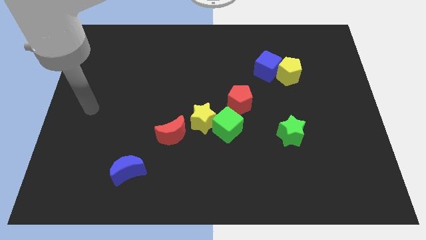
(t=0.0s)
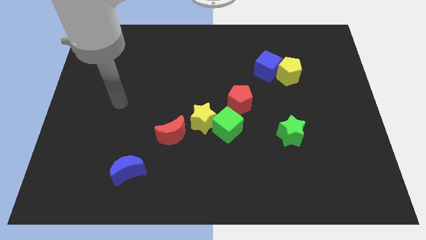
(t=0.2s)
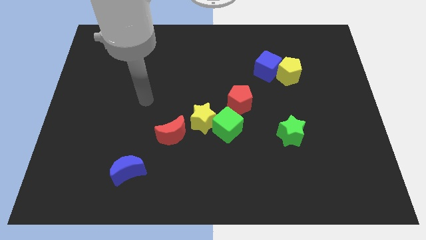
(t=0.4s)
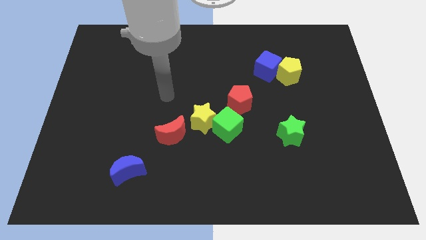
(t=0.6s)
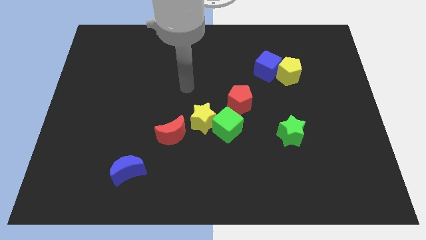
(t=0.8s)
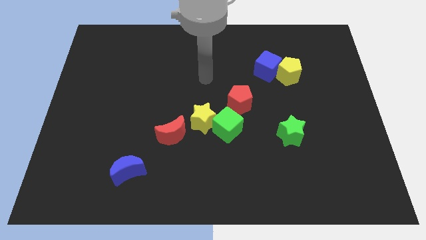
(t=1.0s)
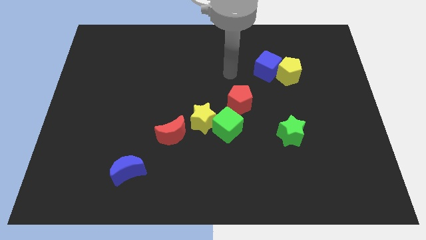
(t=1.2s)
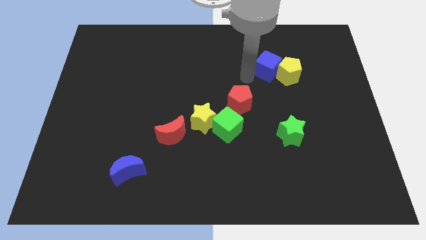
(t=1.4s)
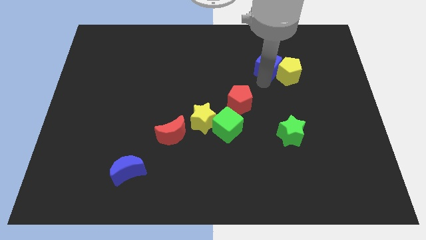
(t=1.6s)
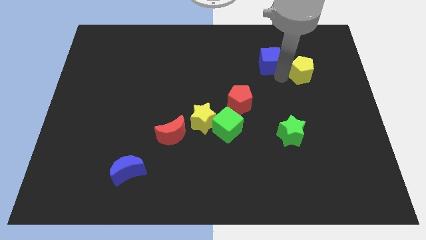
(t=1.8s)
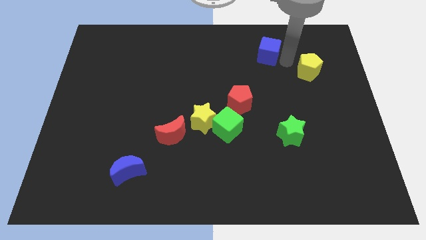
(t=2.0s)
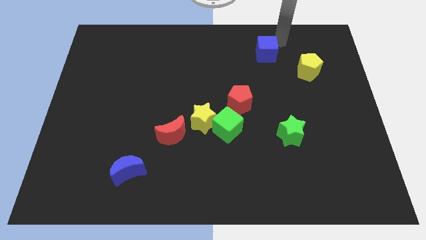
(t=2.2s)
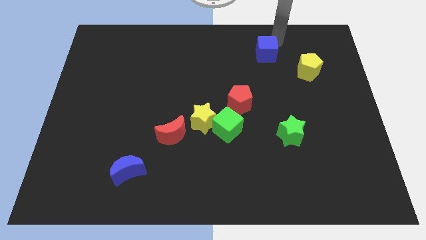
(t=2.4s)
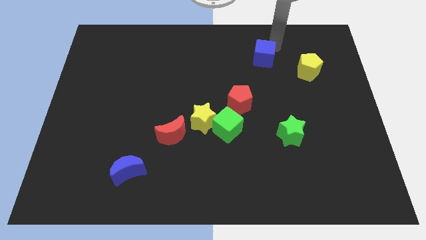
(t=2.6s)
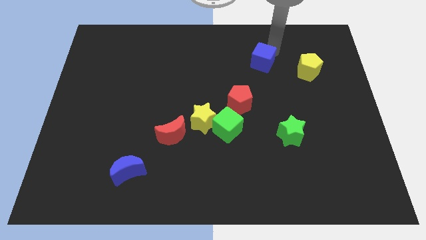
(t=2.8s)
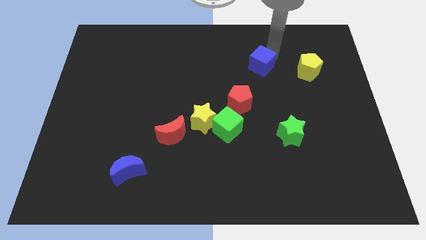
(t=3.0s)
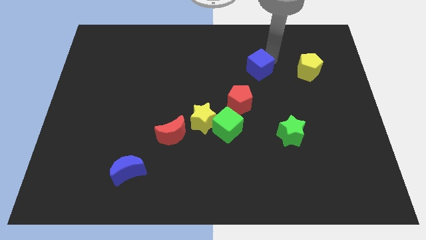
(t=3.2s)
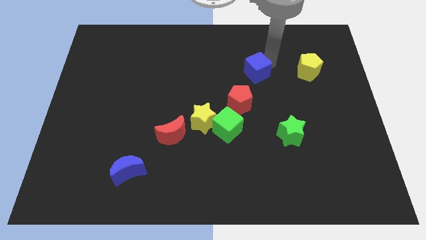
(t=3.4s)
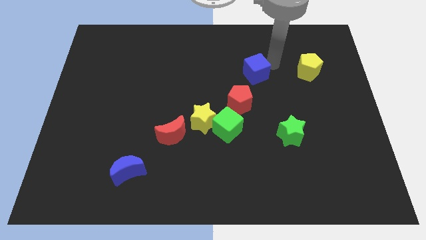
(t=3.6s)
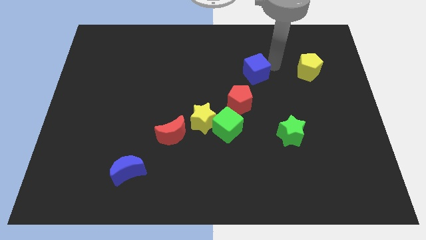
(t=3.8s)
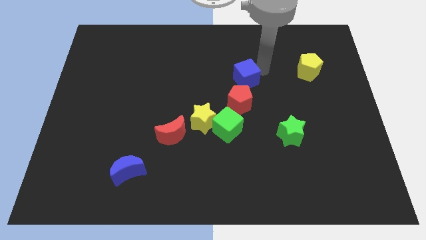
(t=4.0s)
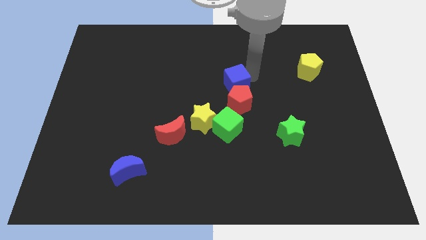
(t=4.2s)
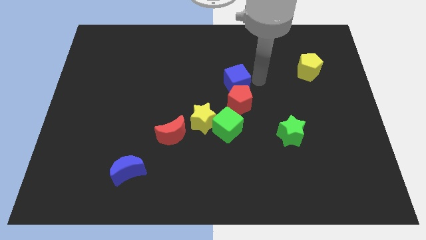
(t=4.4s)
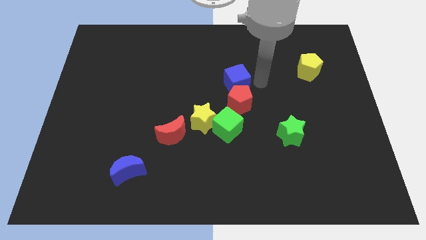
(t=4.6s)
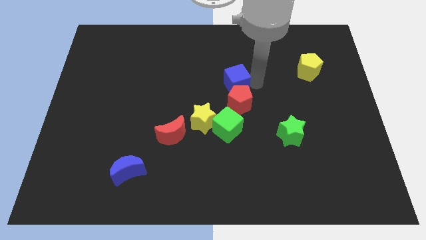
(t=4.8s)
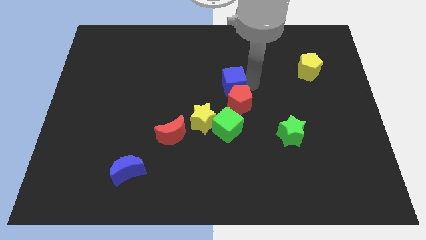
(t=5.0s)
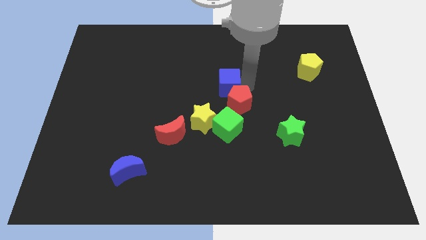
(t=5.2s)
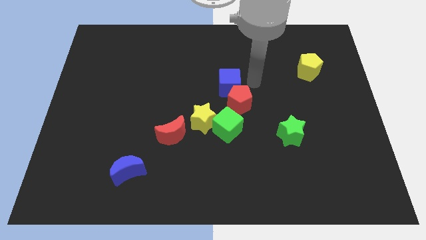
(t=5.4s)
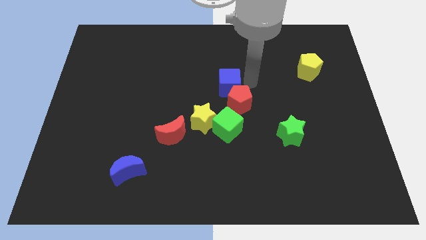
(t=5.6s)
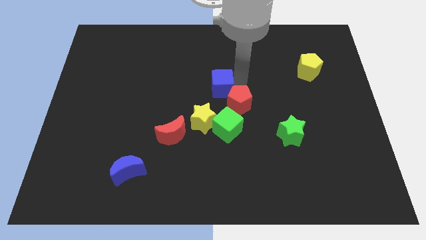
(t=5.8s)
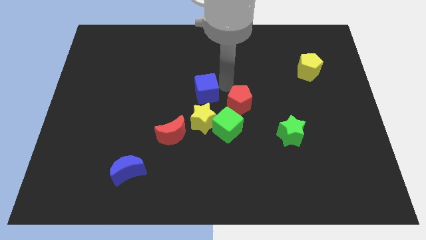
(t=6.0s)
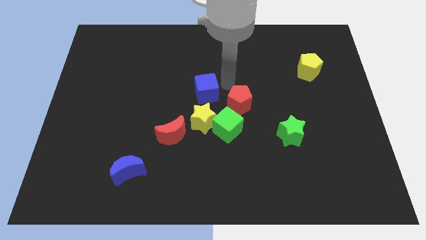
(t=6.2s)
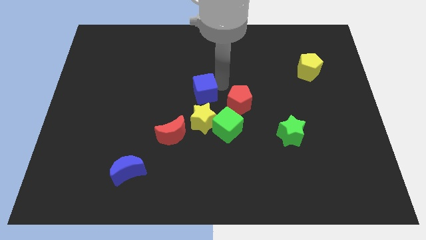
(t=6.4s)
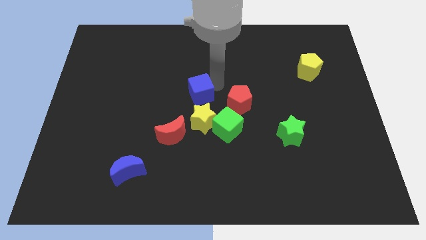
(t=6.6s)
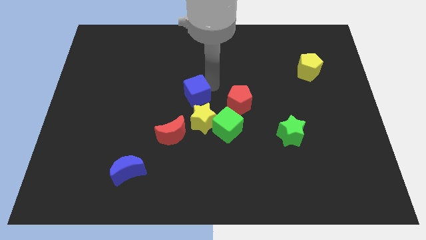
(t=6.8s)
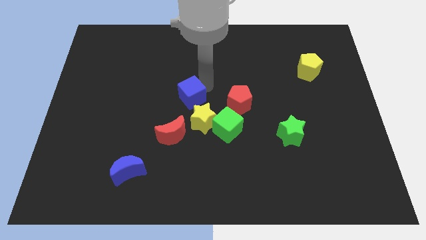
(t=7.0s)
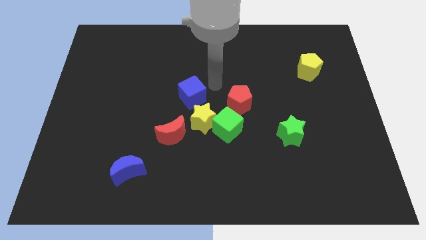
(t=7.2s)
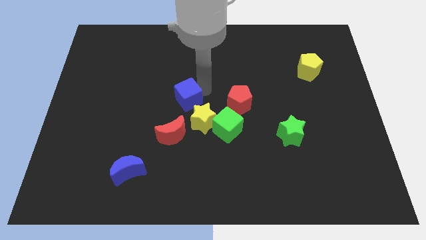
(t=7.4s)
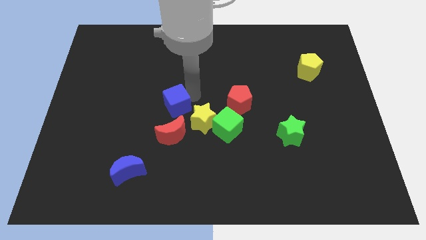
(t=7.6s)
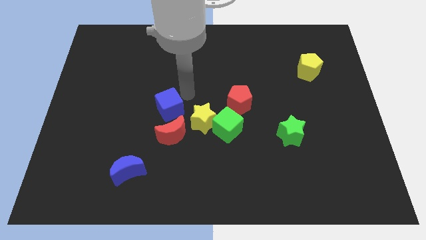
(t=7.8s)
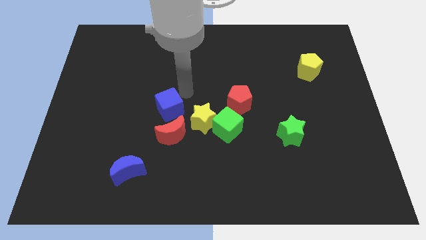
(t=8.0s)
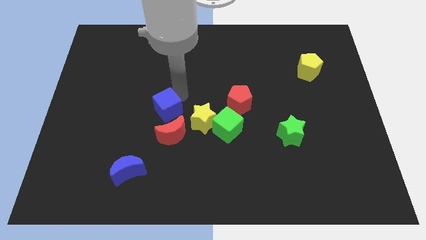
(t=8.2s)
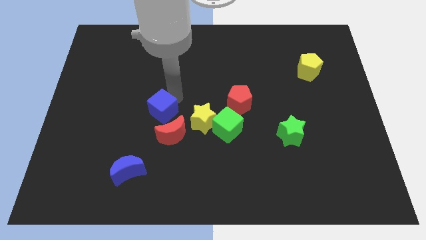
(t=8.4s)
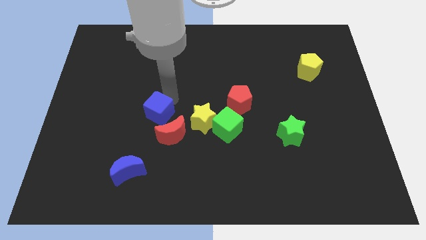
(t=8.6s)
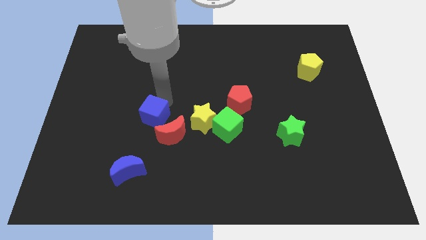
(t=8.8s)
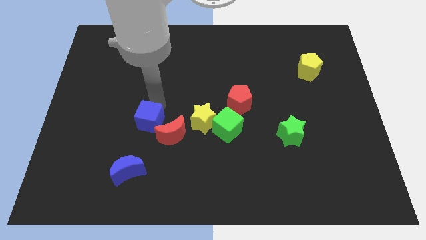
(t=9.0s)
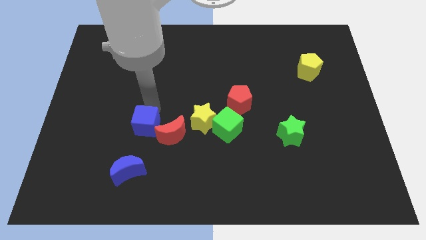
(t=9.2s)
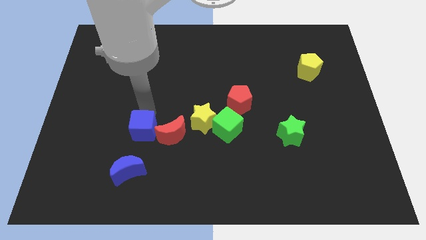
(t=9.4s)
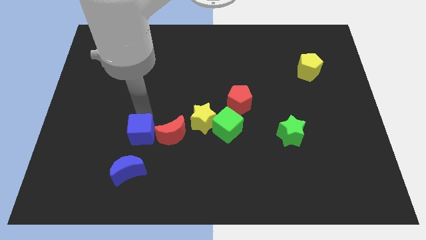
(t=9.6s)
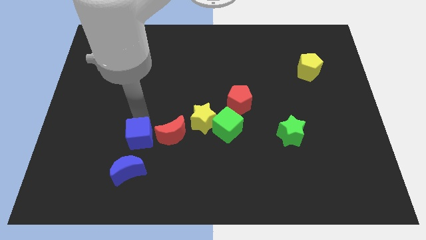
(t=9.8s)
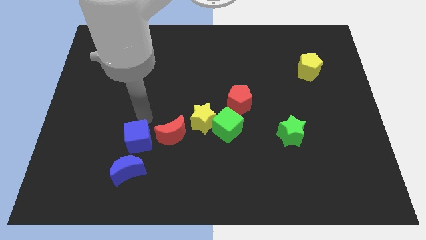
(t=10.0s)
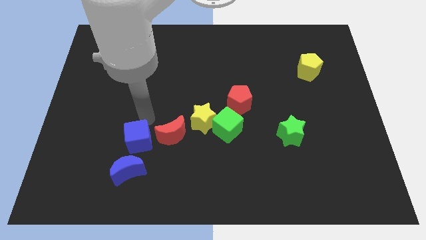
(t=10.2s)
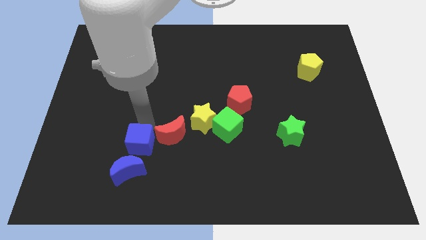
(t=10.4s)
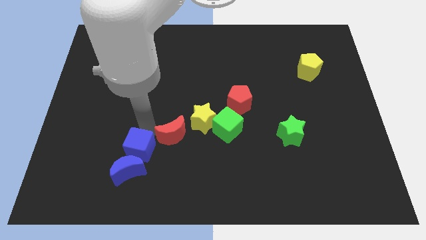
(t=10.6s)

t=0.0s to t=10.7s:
push the blue cube towards the blue moon

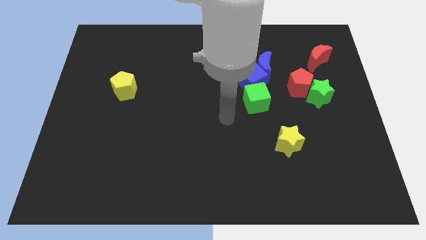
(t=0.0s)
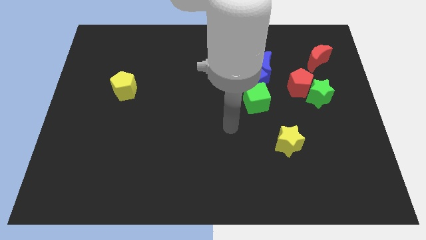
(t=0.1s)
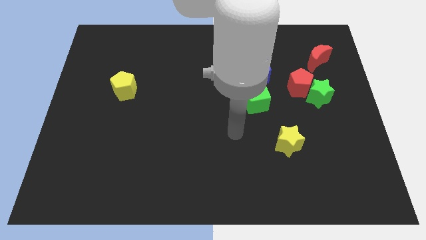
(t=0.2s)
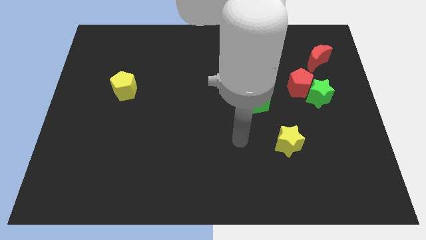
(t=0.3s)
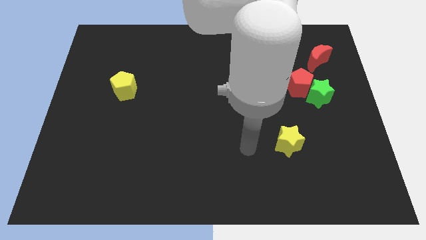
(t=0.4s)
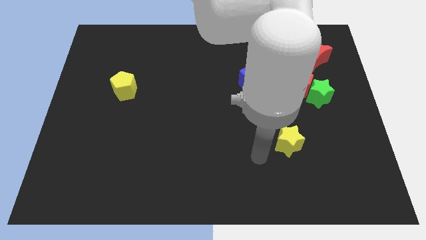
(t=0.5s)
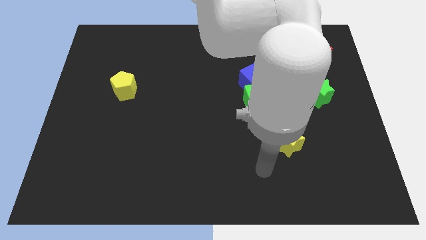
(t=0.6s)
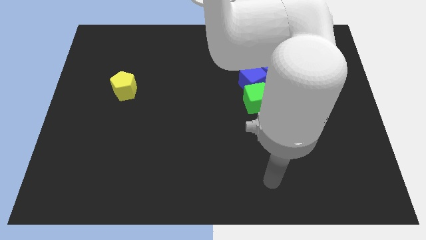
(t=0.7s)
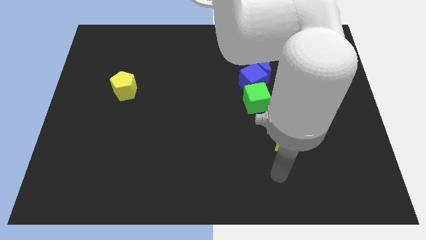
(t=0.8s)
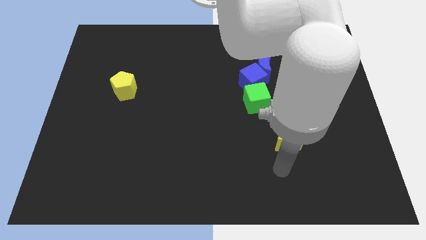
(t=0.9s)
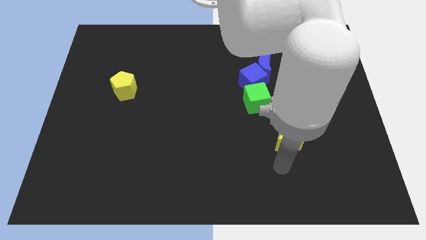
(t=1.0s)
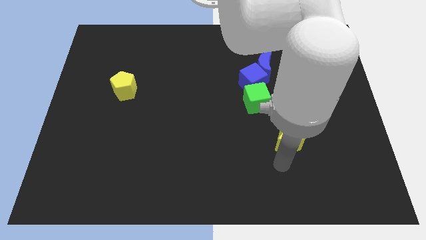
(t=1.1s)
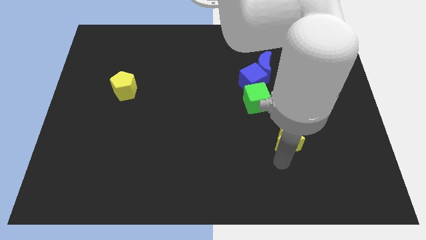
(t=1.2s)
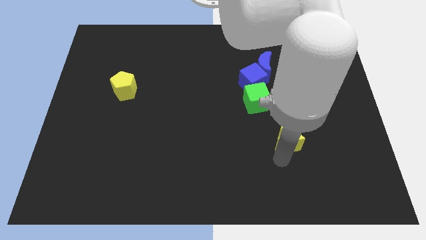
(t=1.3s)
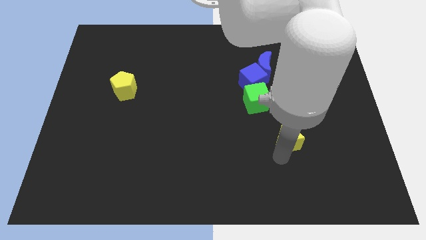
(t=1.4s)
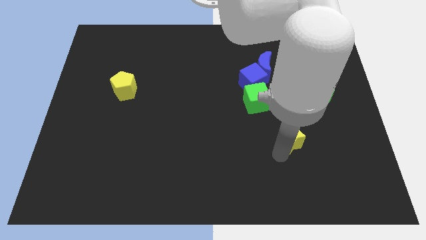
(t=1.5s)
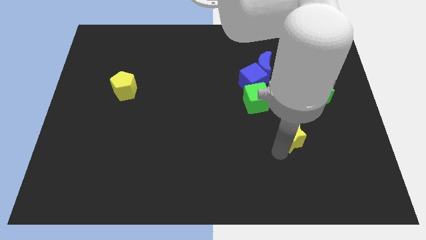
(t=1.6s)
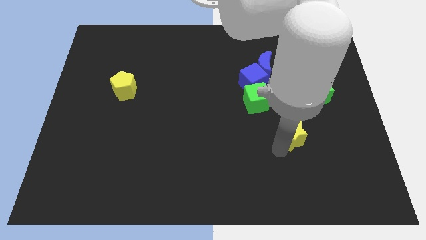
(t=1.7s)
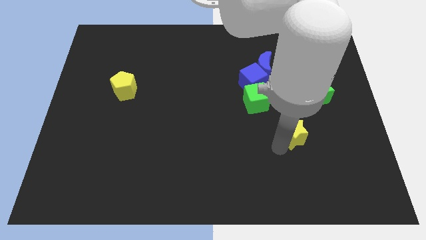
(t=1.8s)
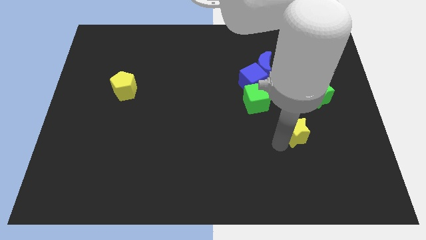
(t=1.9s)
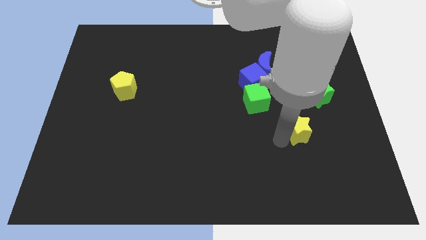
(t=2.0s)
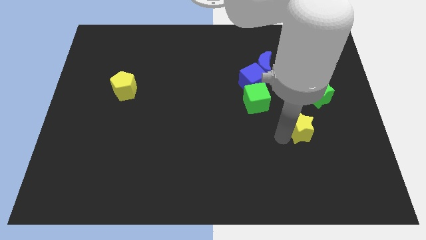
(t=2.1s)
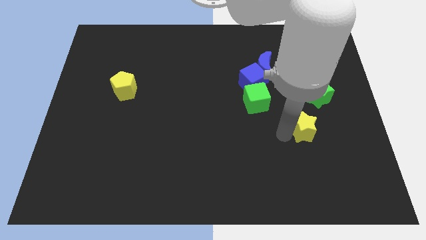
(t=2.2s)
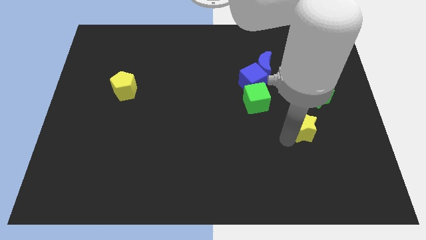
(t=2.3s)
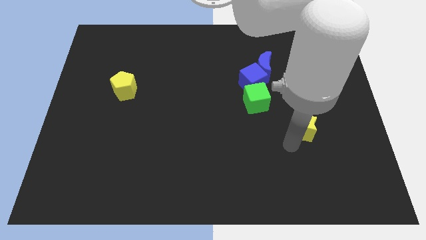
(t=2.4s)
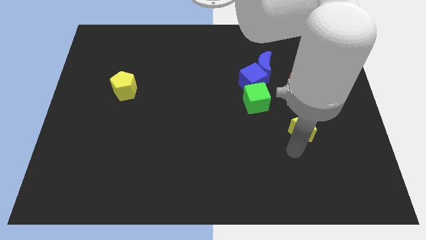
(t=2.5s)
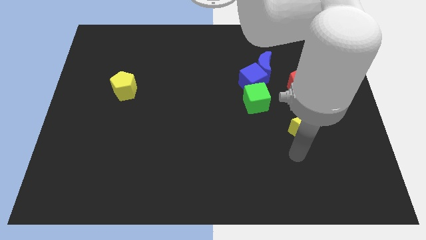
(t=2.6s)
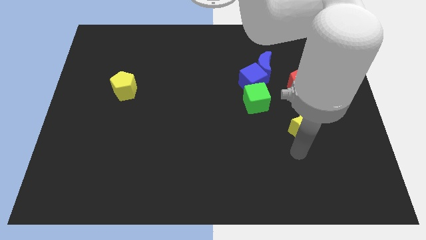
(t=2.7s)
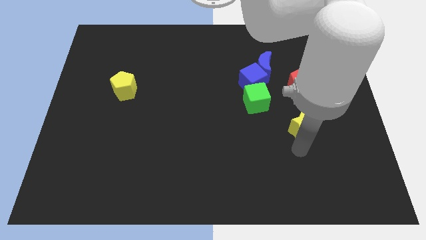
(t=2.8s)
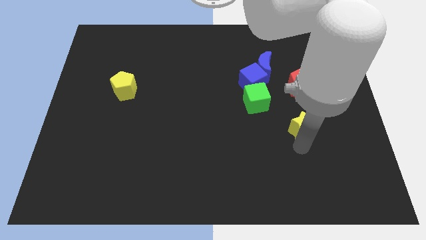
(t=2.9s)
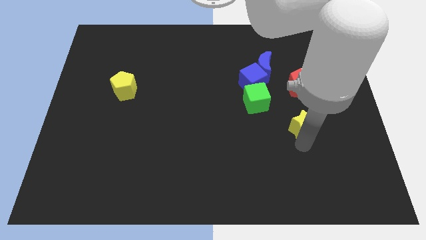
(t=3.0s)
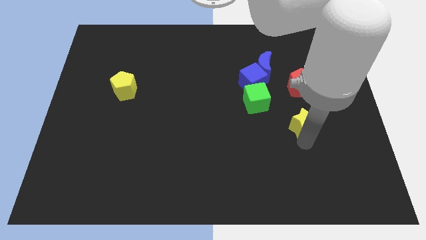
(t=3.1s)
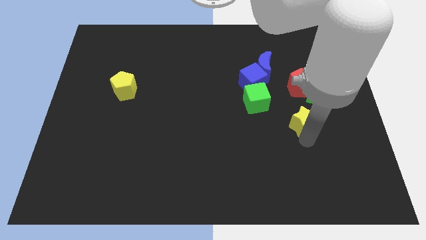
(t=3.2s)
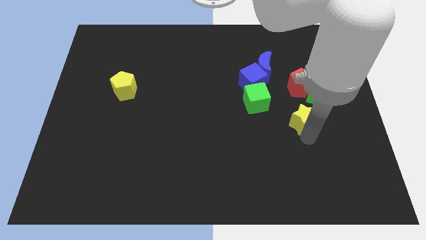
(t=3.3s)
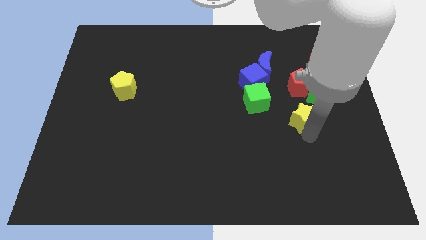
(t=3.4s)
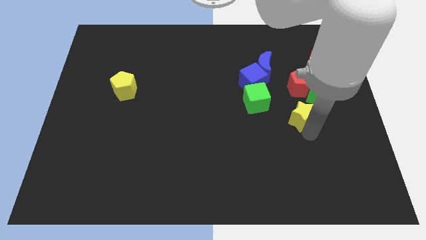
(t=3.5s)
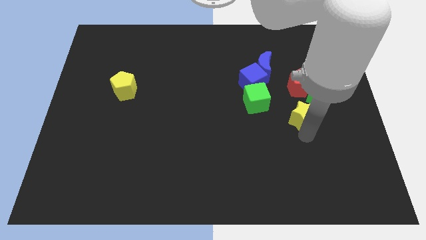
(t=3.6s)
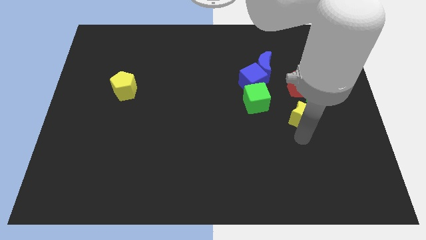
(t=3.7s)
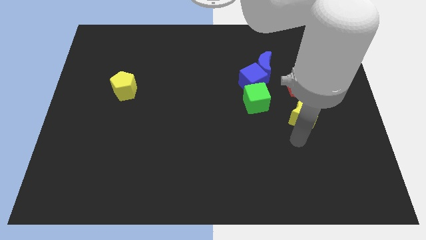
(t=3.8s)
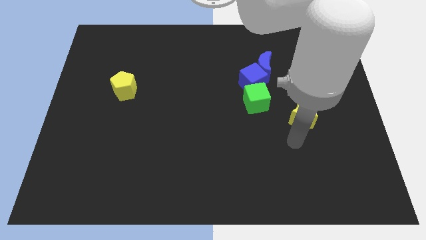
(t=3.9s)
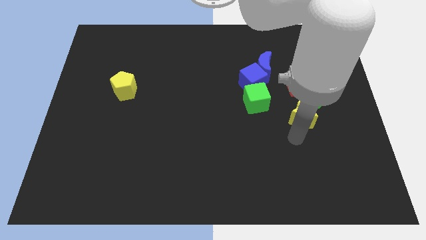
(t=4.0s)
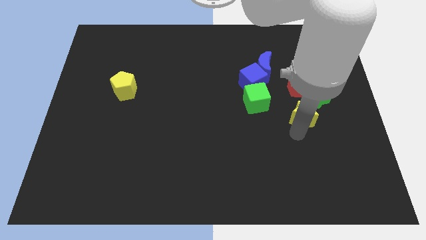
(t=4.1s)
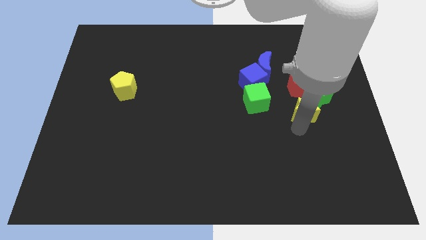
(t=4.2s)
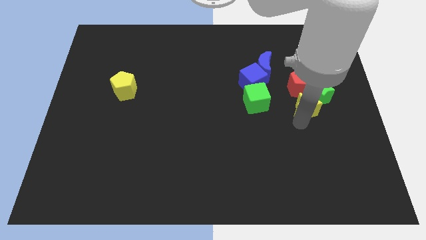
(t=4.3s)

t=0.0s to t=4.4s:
slide the yellow star next to the green star
